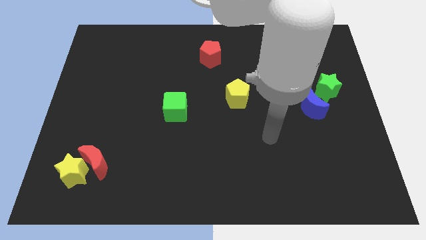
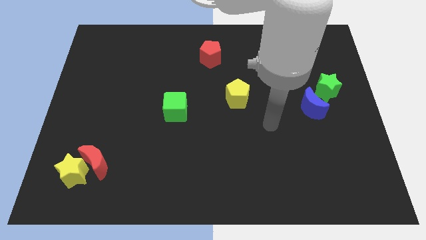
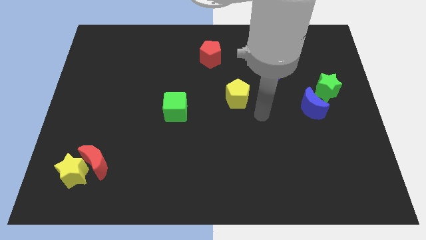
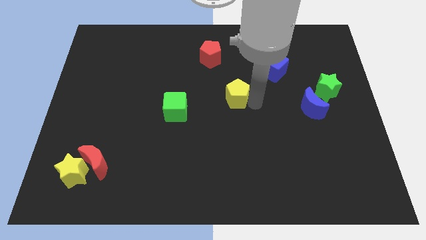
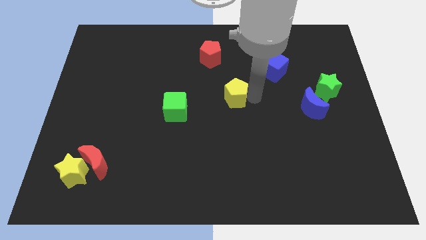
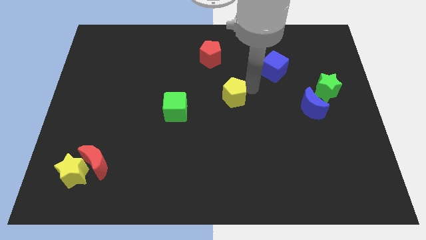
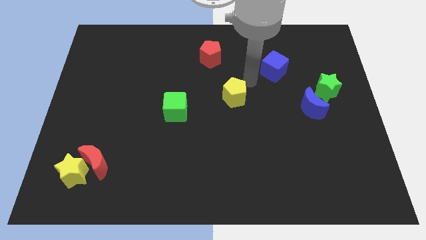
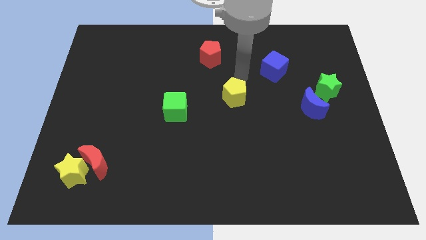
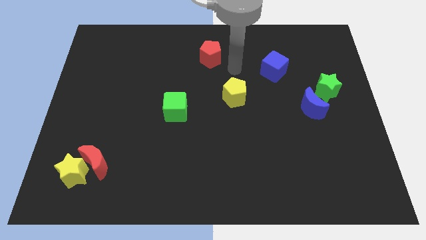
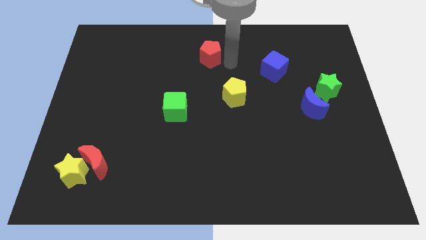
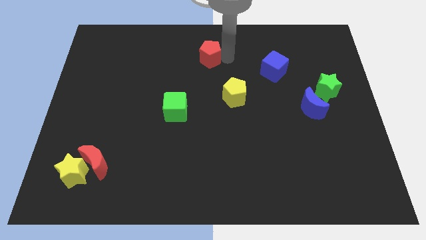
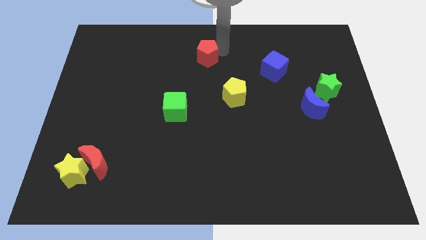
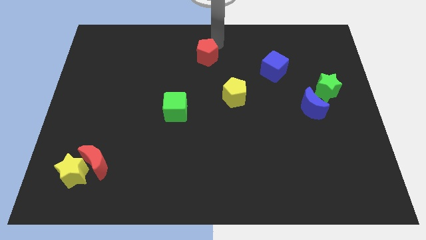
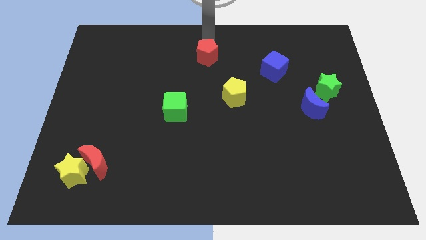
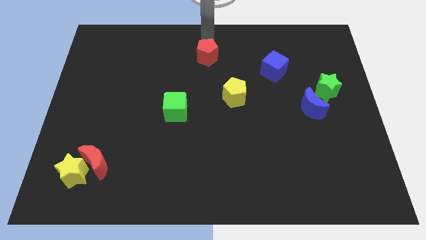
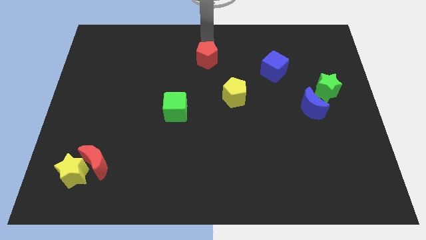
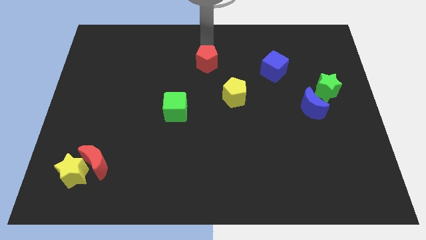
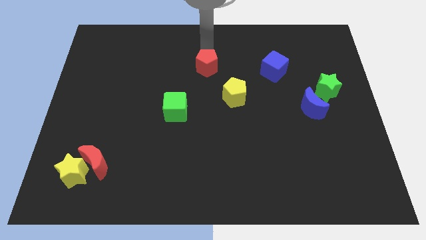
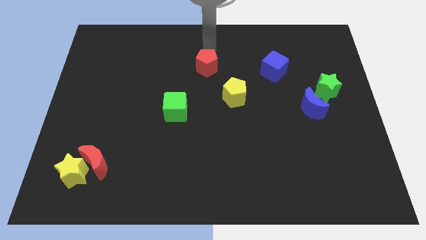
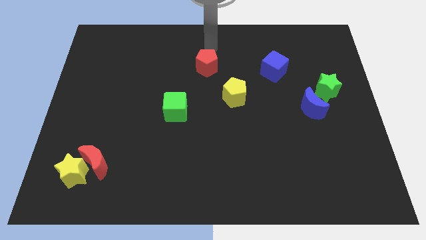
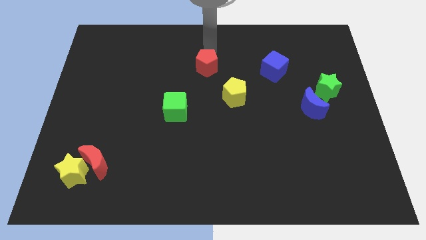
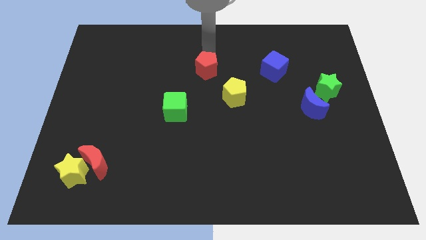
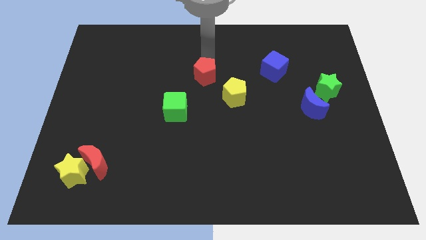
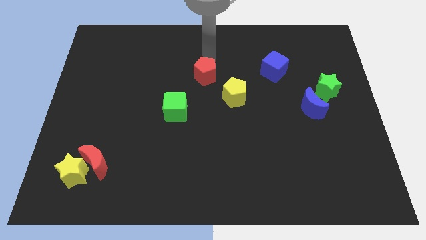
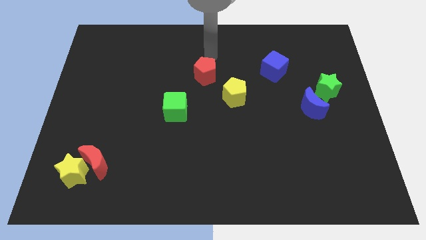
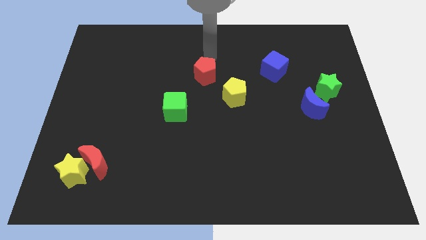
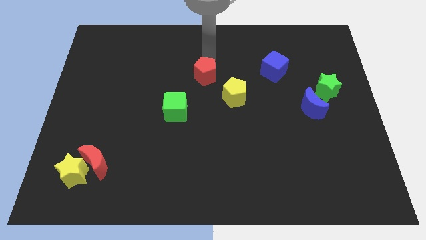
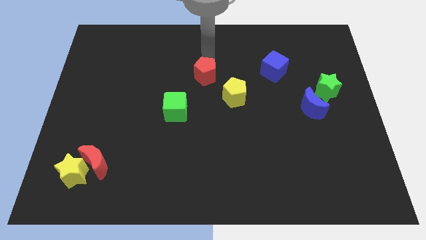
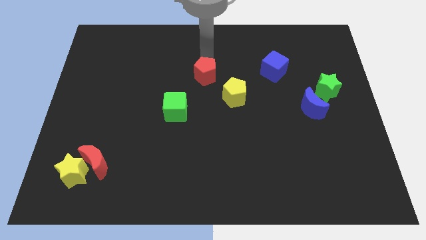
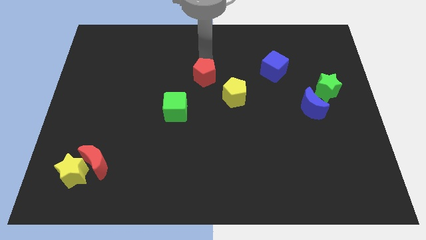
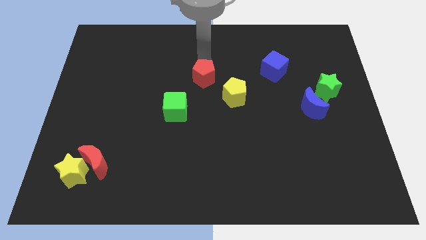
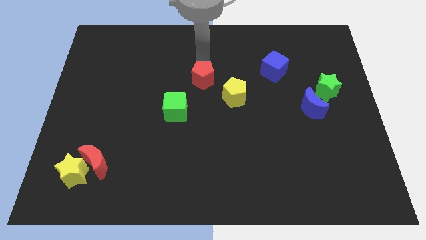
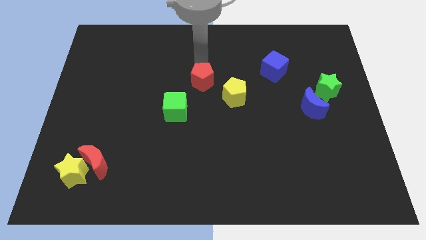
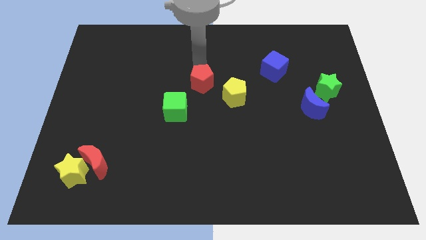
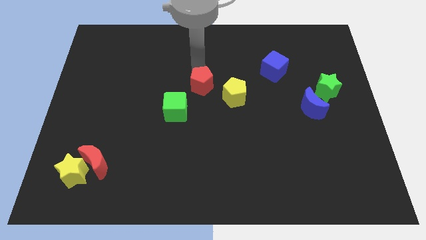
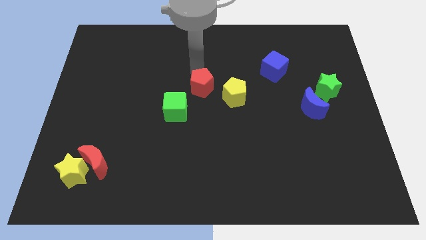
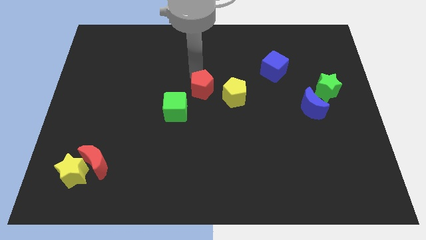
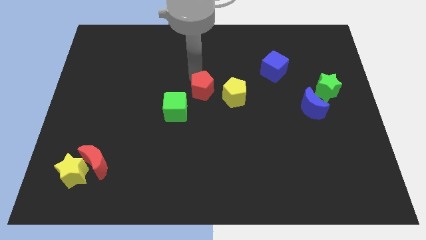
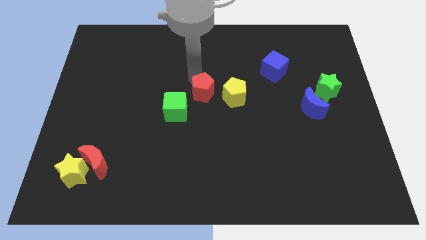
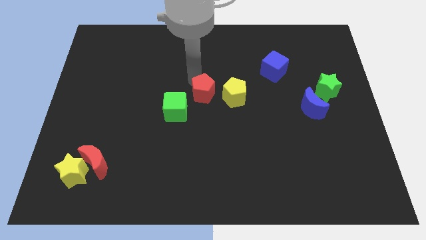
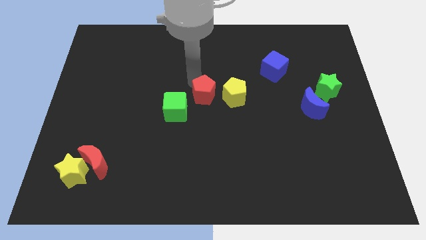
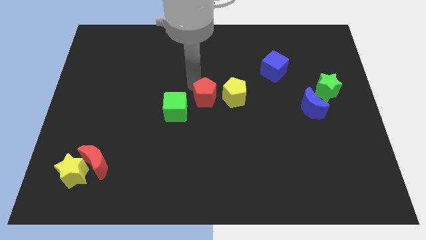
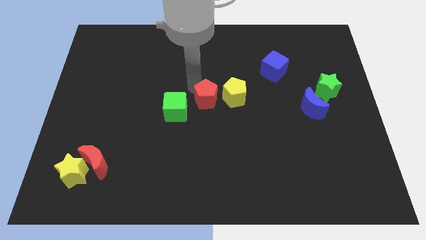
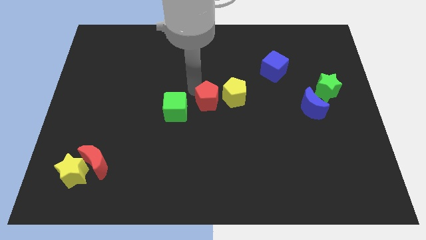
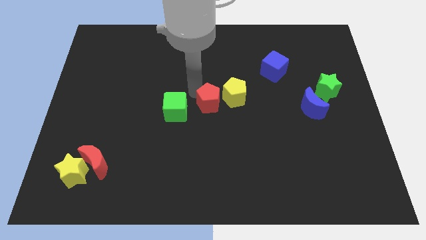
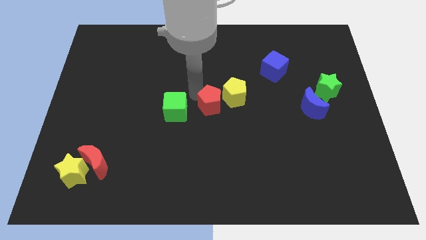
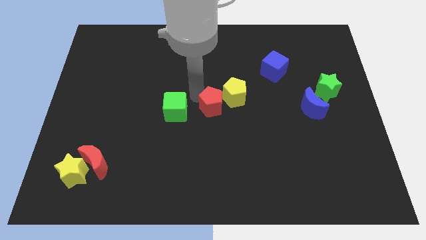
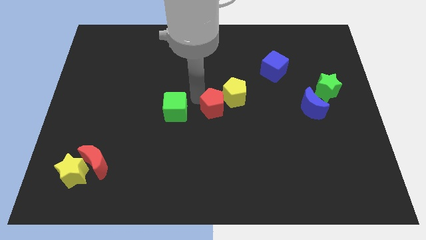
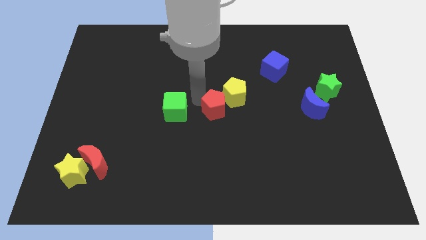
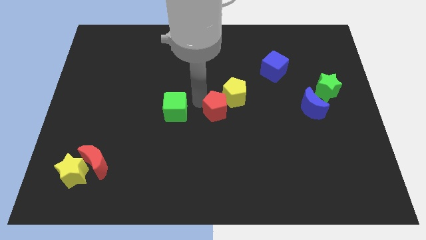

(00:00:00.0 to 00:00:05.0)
put the red pentagon below the yellow pentagon

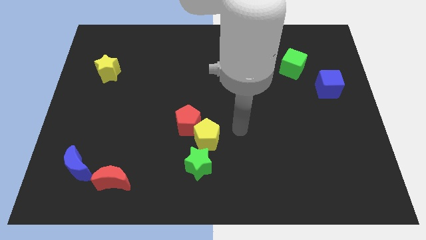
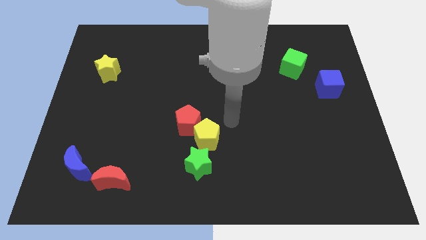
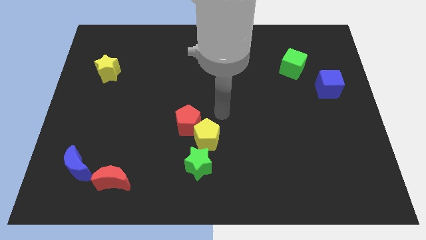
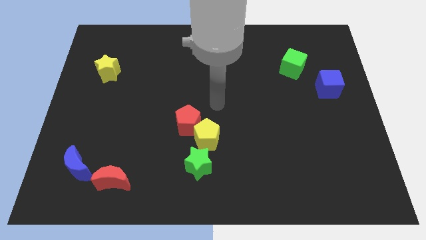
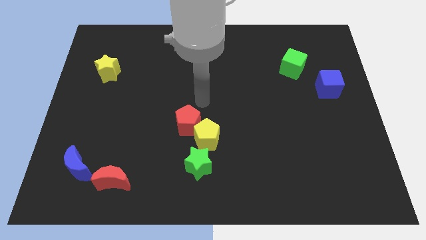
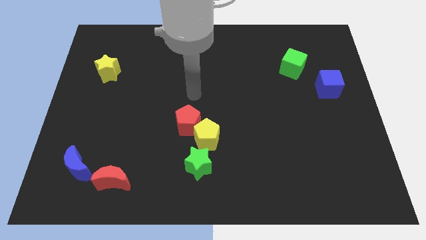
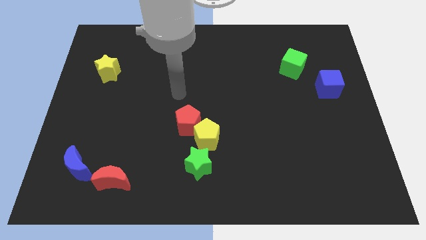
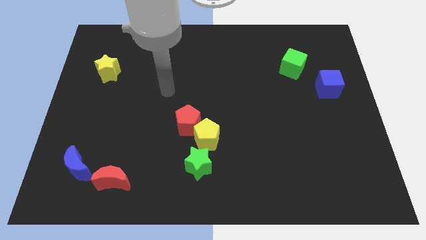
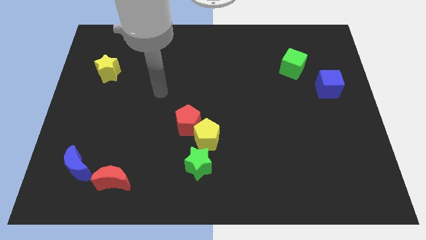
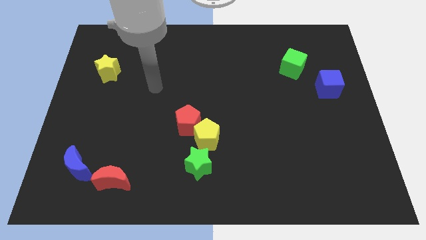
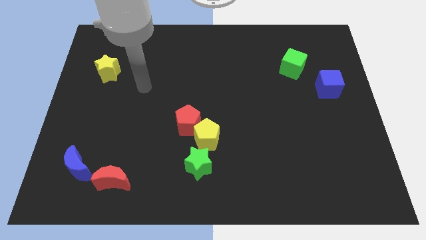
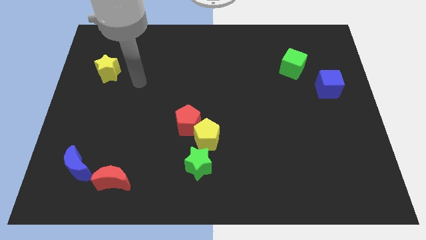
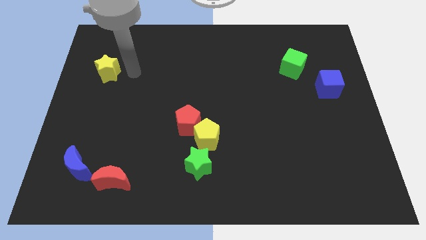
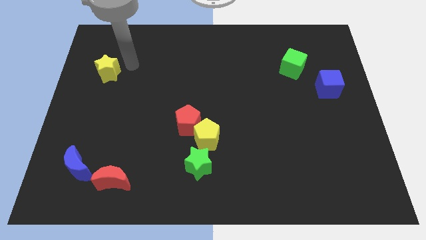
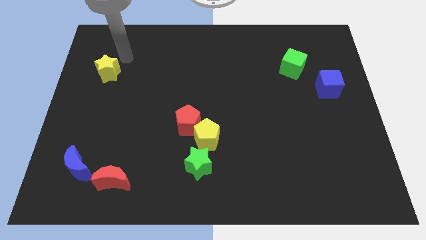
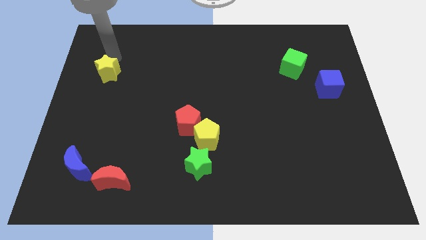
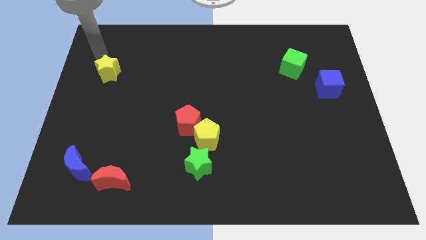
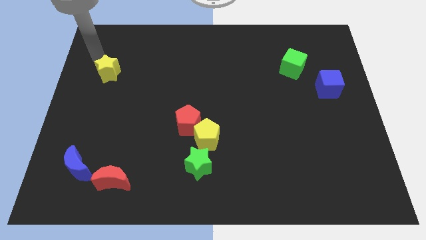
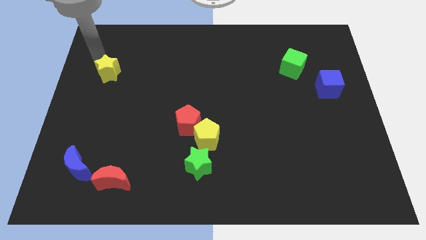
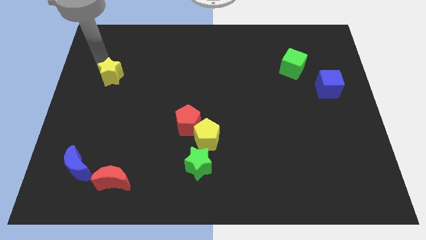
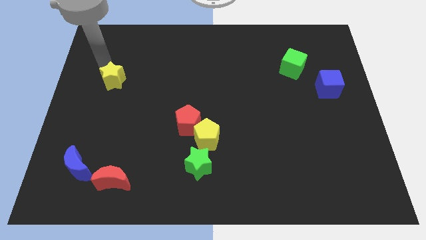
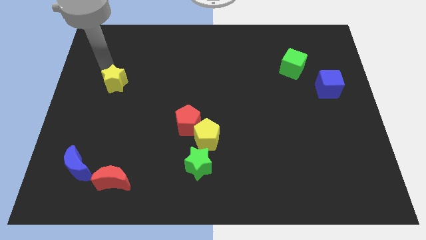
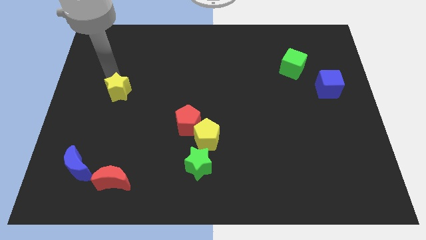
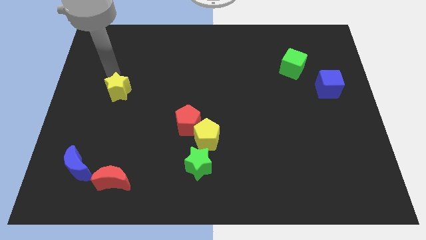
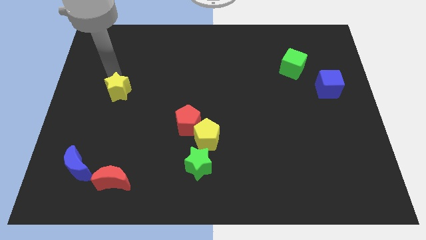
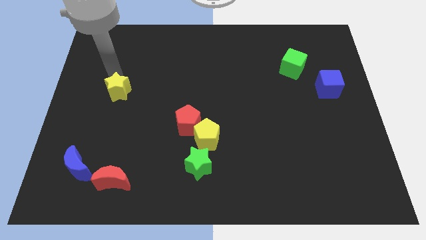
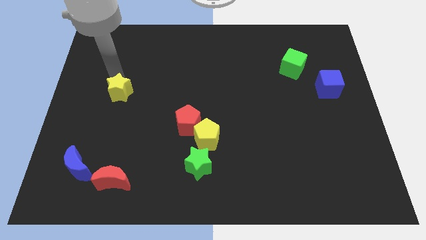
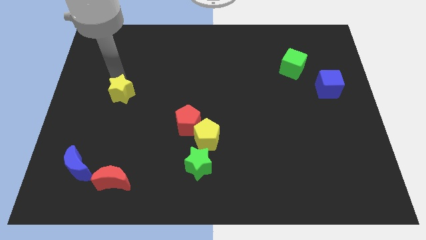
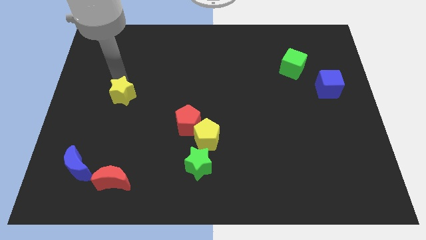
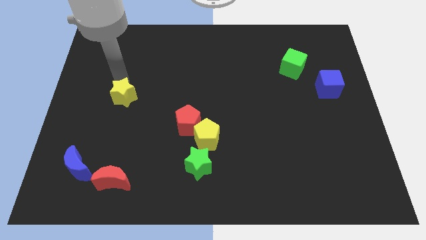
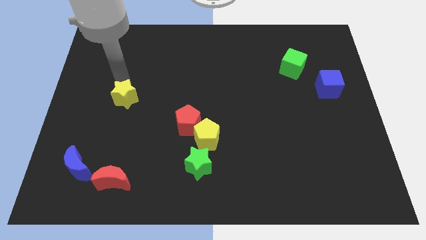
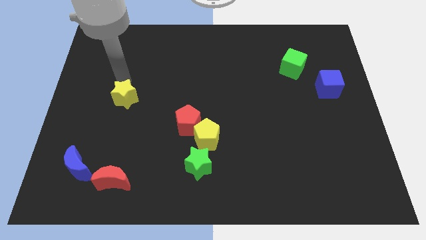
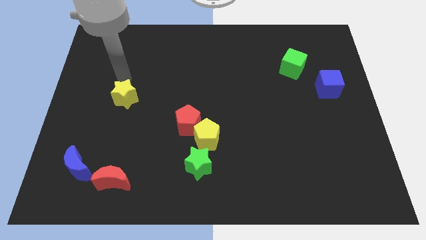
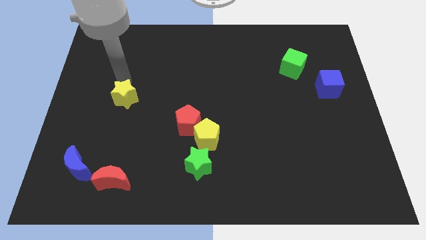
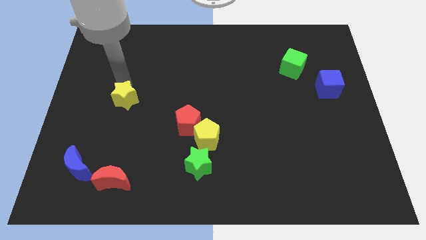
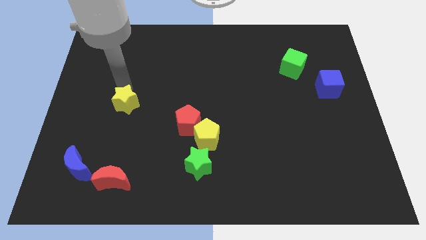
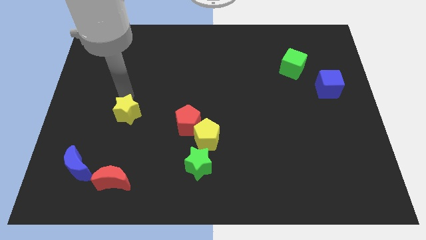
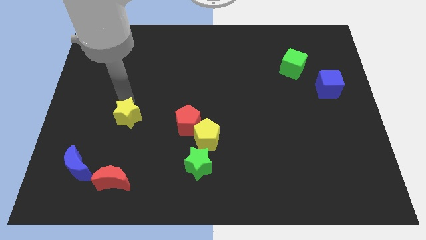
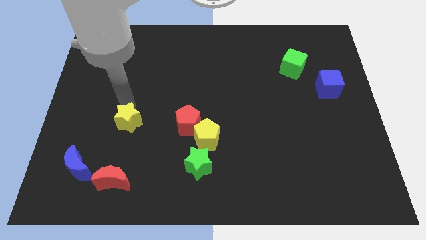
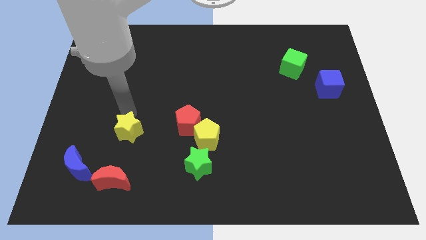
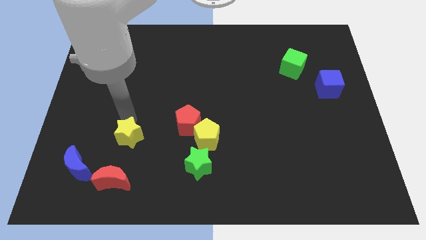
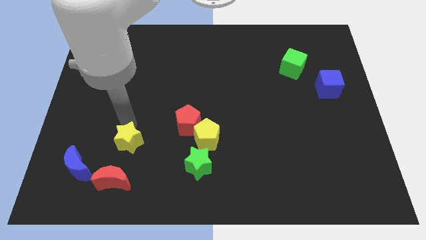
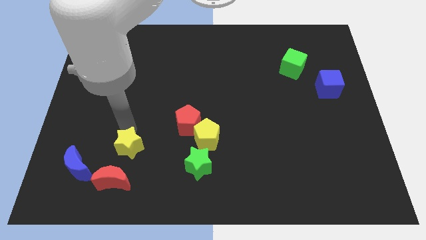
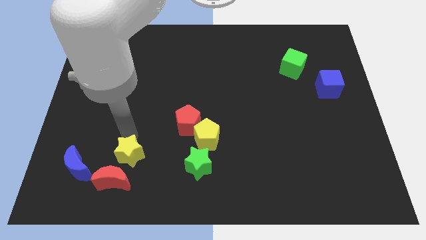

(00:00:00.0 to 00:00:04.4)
slide the yellow star just right of the blue moon
